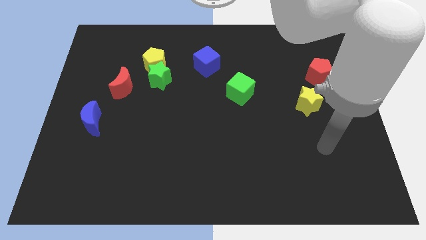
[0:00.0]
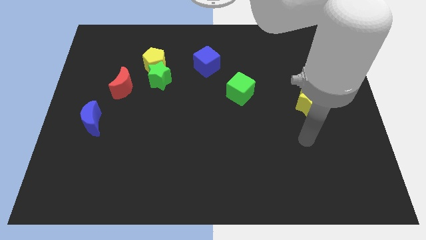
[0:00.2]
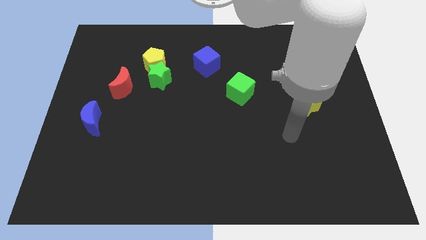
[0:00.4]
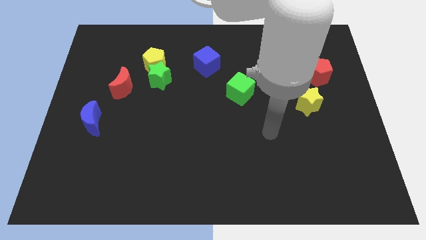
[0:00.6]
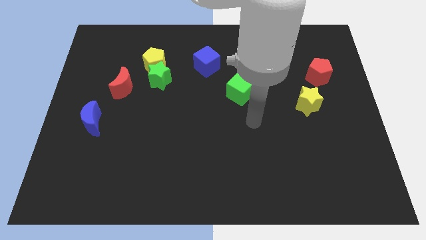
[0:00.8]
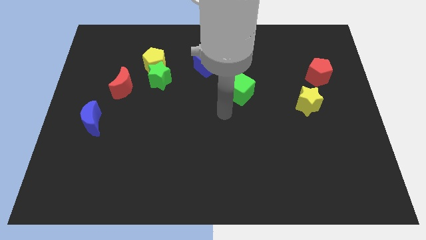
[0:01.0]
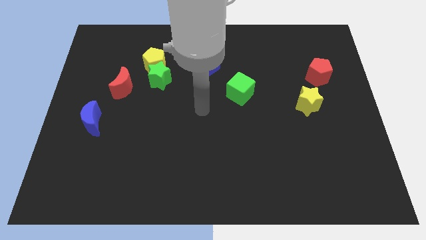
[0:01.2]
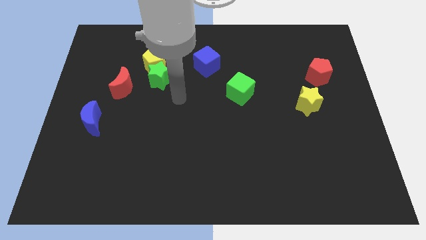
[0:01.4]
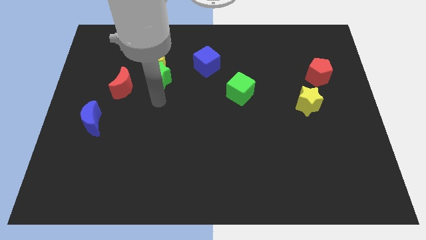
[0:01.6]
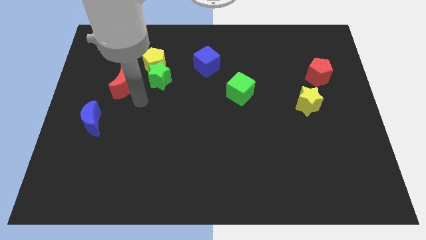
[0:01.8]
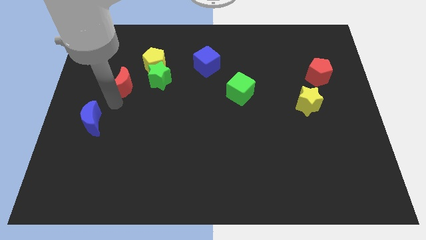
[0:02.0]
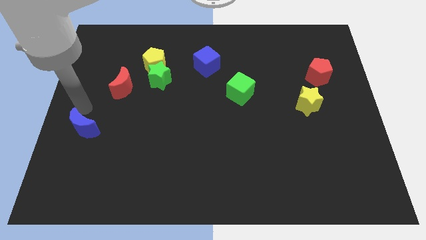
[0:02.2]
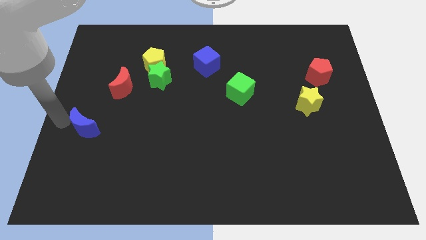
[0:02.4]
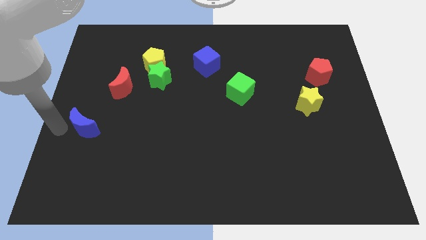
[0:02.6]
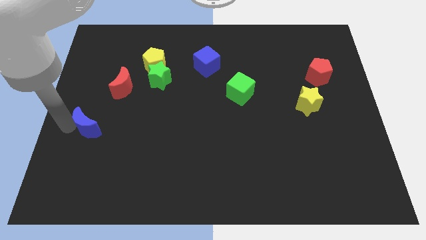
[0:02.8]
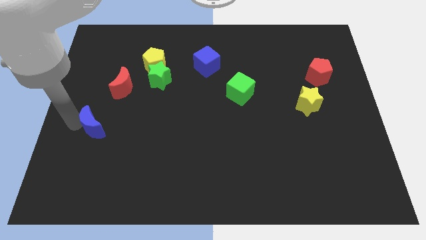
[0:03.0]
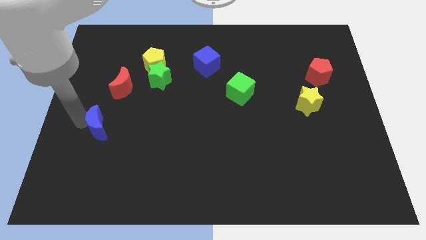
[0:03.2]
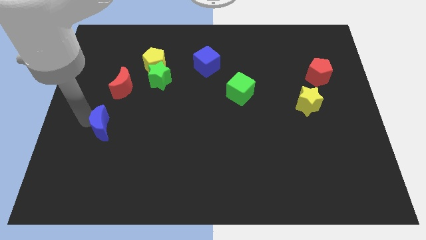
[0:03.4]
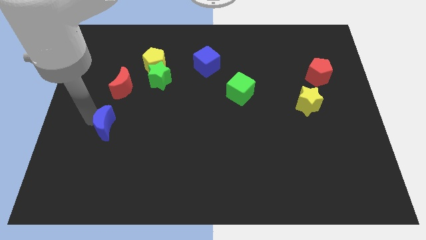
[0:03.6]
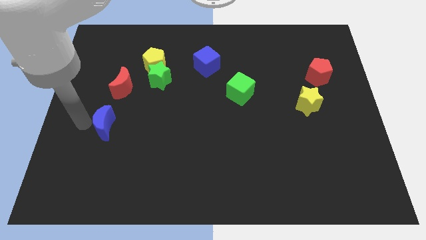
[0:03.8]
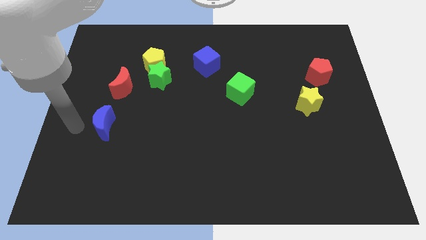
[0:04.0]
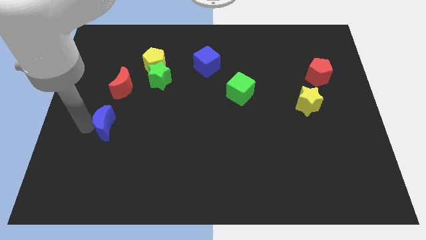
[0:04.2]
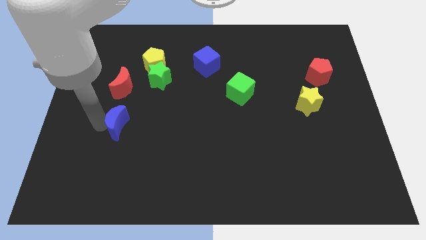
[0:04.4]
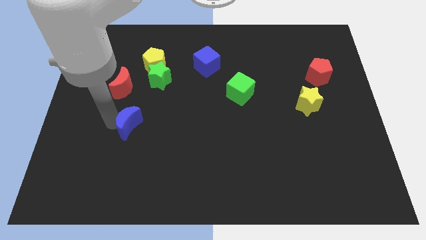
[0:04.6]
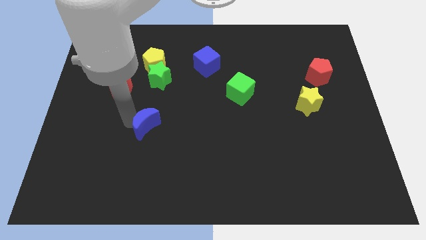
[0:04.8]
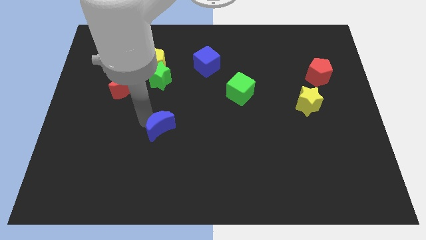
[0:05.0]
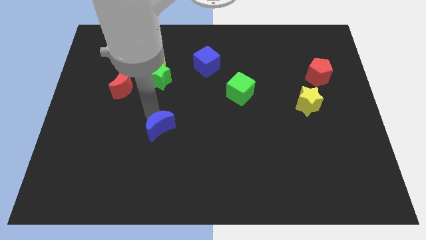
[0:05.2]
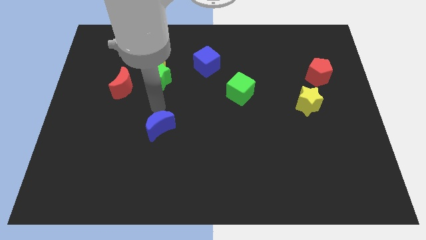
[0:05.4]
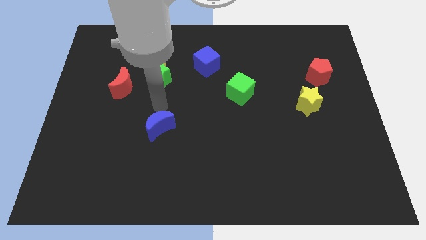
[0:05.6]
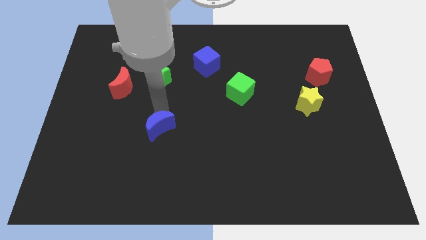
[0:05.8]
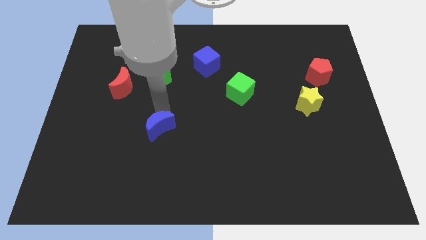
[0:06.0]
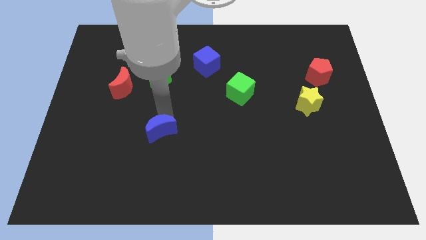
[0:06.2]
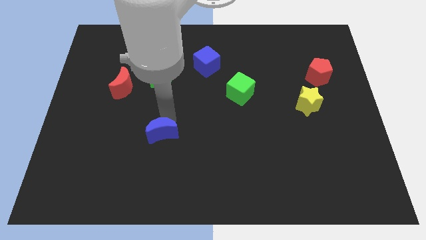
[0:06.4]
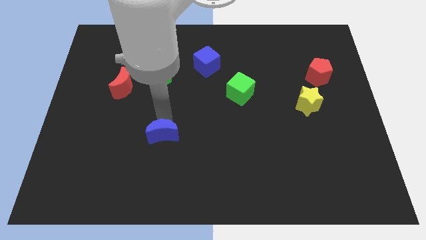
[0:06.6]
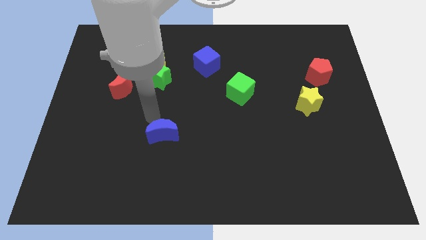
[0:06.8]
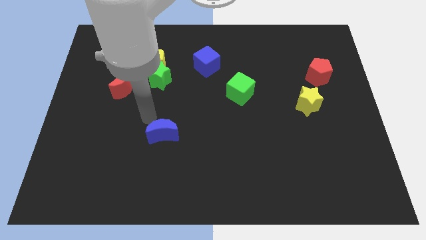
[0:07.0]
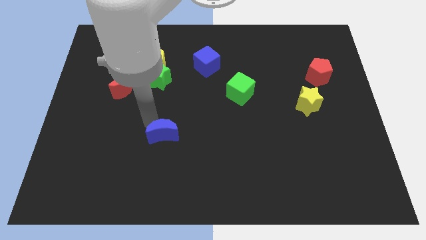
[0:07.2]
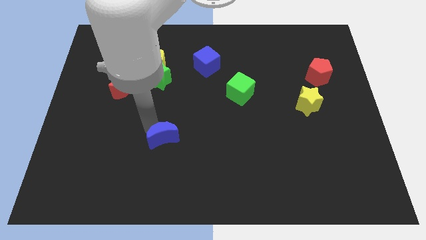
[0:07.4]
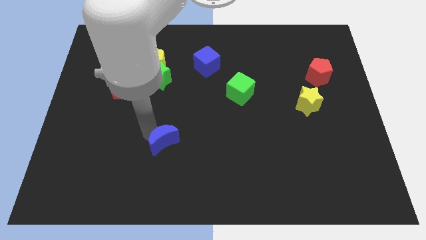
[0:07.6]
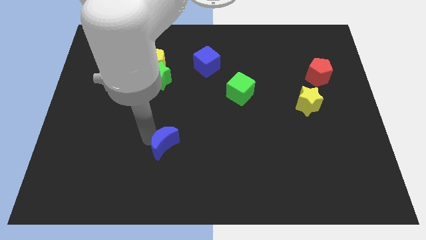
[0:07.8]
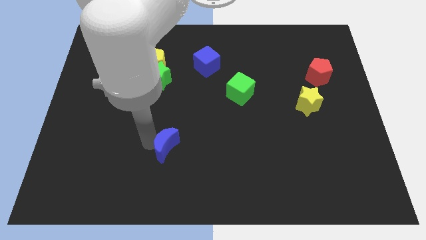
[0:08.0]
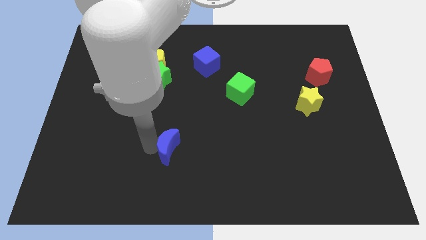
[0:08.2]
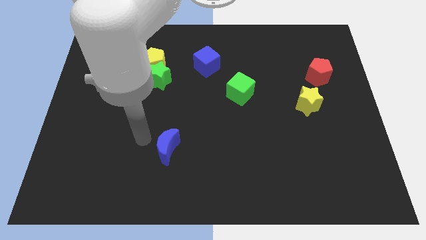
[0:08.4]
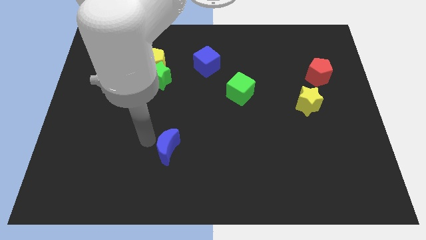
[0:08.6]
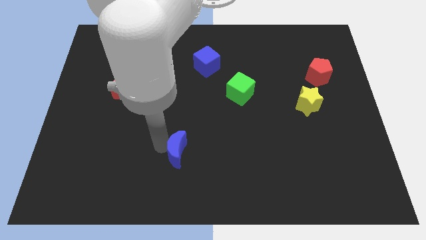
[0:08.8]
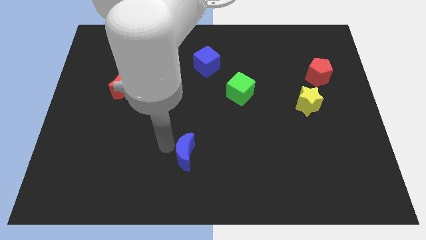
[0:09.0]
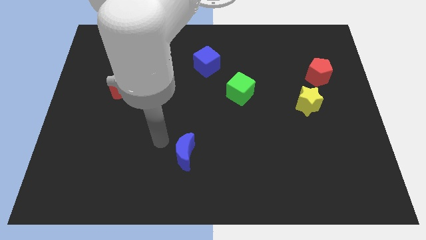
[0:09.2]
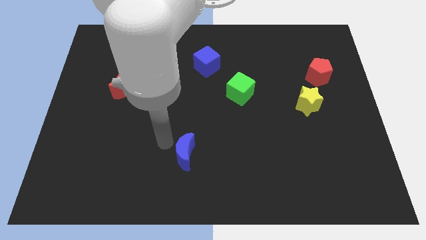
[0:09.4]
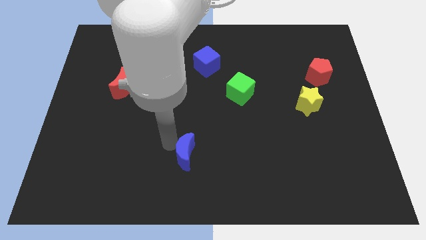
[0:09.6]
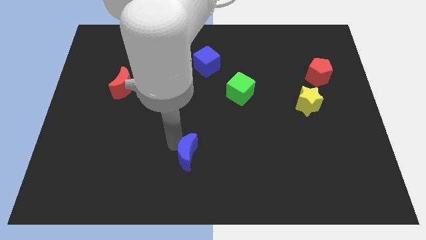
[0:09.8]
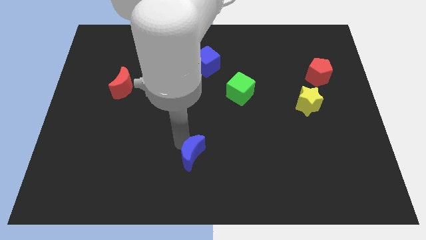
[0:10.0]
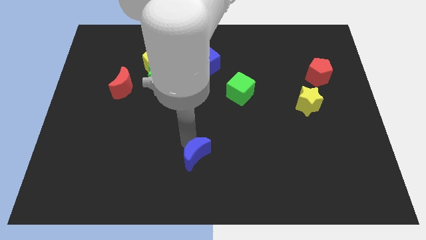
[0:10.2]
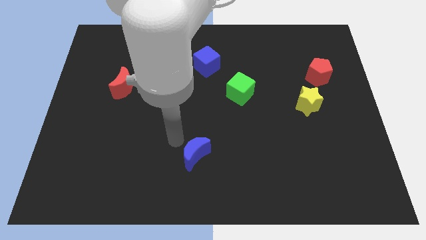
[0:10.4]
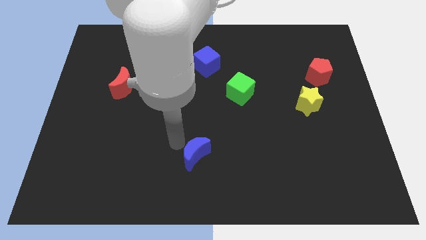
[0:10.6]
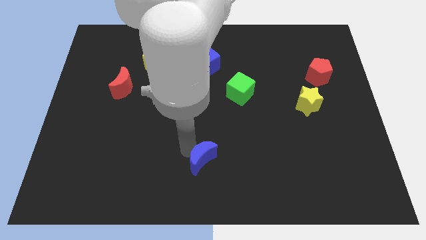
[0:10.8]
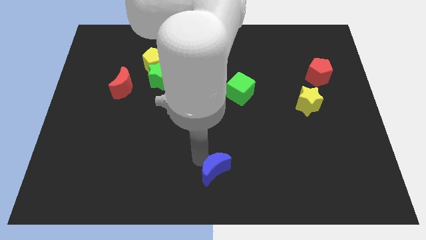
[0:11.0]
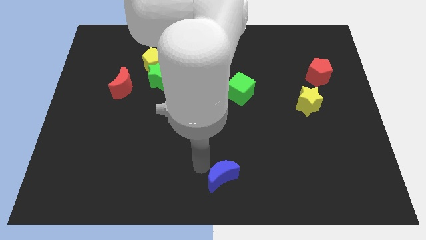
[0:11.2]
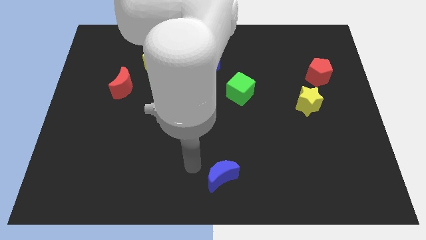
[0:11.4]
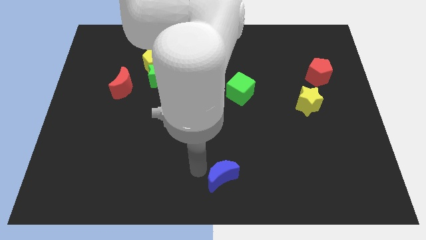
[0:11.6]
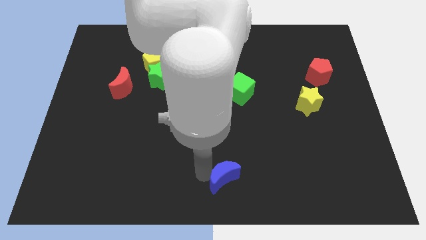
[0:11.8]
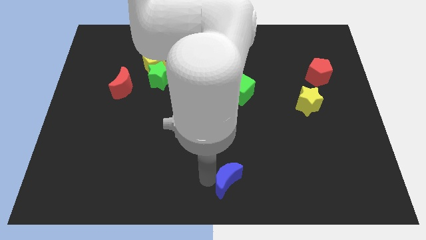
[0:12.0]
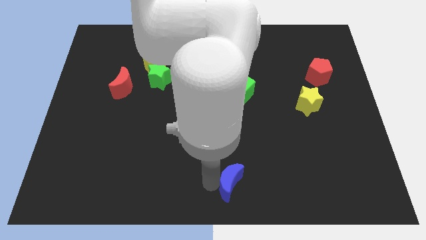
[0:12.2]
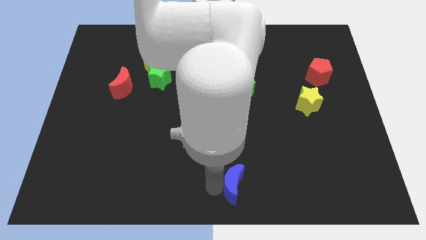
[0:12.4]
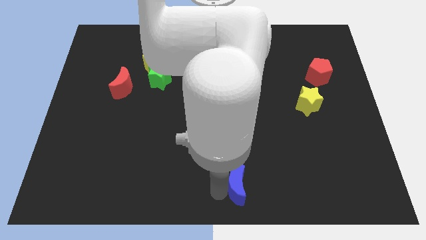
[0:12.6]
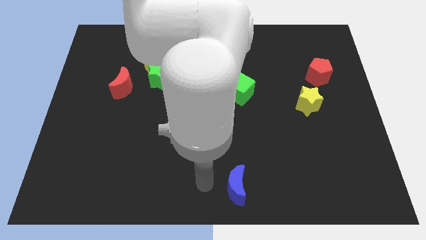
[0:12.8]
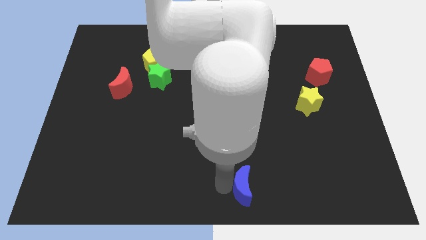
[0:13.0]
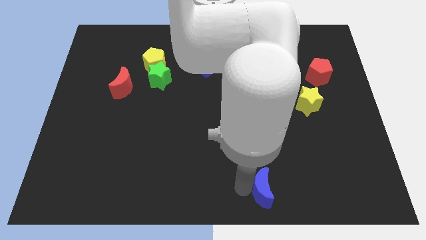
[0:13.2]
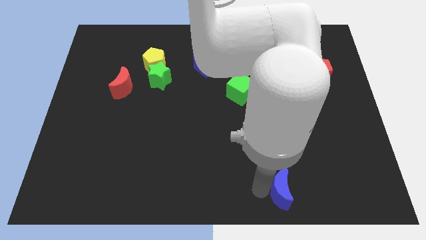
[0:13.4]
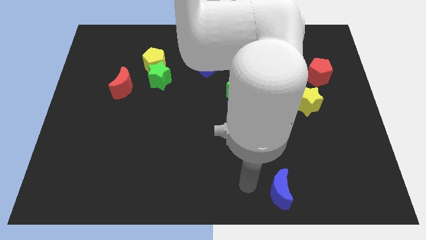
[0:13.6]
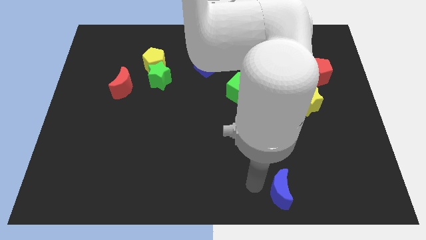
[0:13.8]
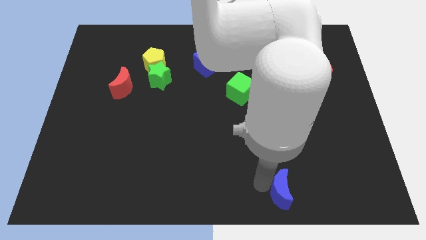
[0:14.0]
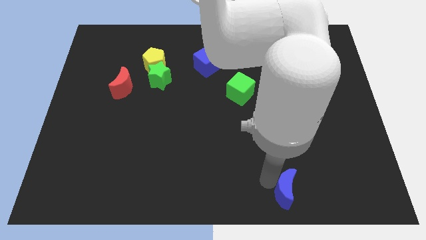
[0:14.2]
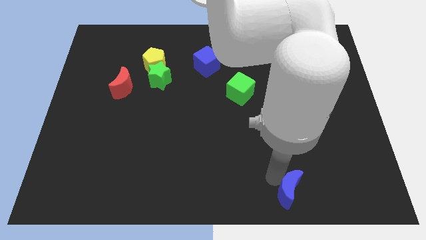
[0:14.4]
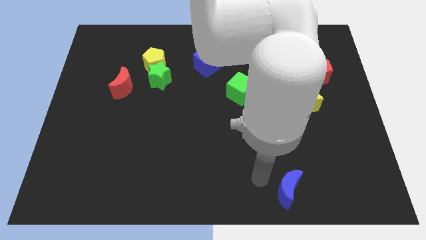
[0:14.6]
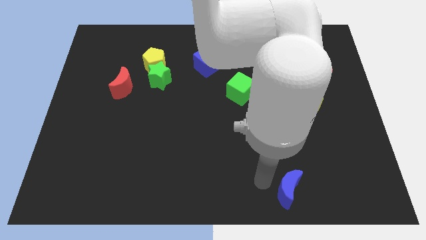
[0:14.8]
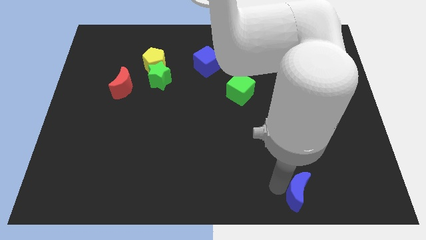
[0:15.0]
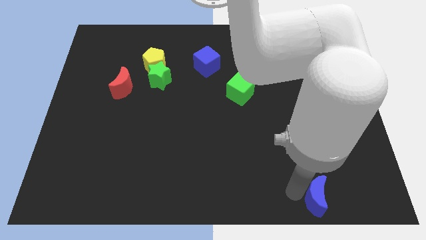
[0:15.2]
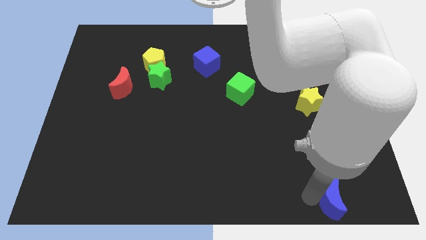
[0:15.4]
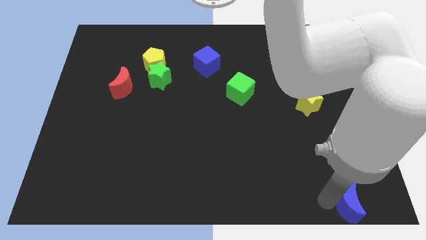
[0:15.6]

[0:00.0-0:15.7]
move the blue moon to the bottom right corner
